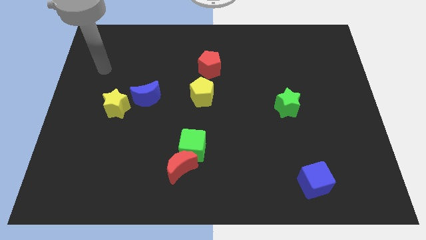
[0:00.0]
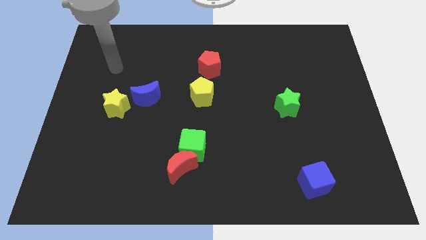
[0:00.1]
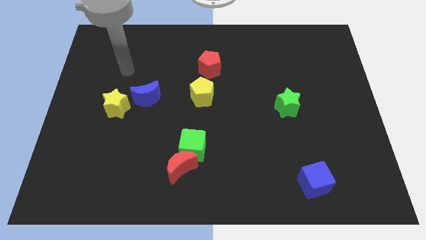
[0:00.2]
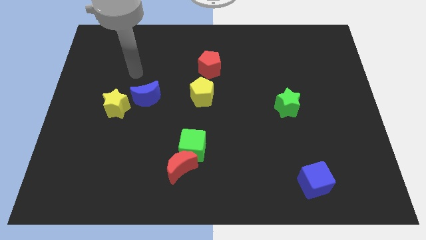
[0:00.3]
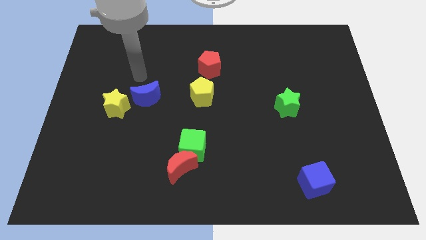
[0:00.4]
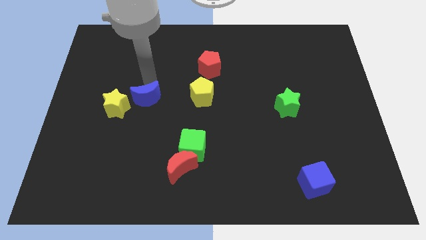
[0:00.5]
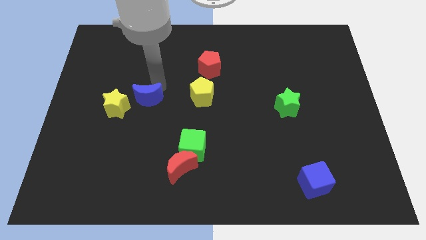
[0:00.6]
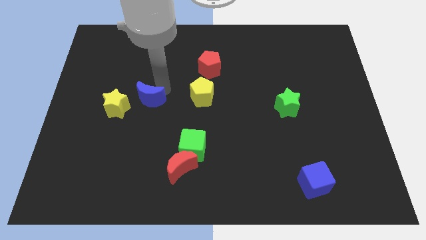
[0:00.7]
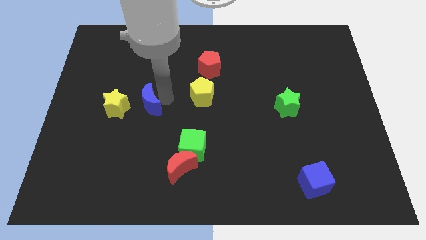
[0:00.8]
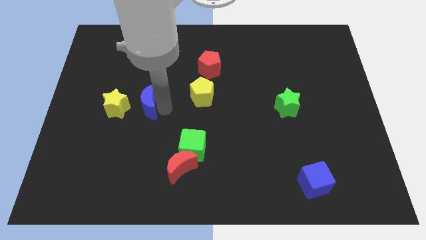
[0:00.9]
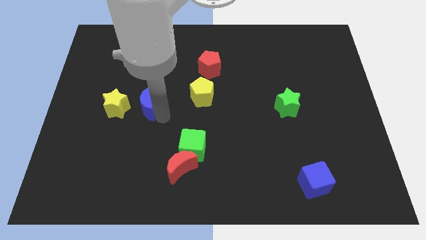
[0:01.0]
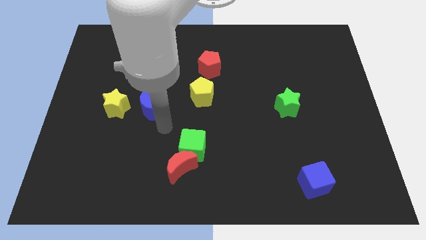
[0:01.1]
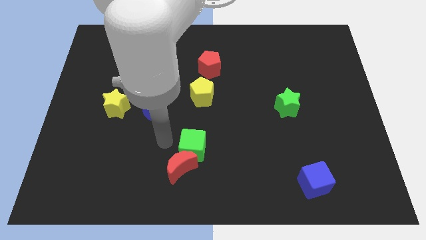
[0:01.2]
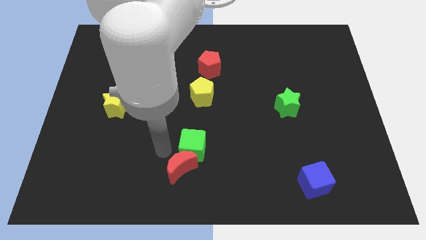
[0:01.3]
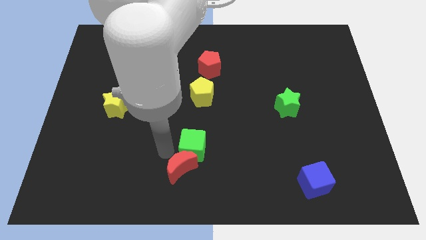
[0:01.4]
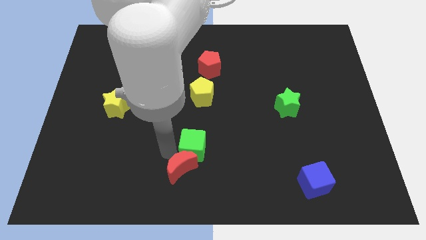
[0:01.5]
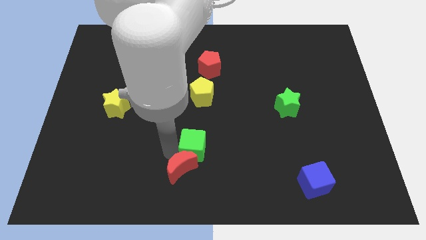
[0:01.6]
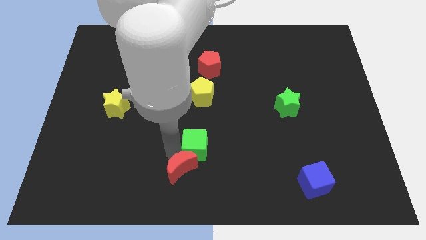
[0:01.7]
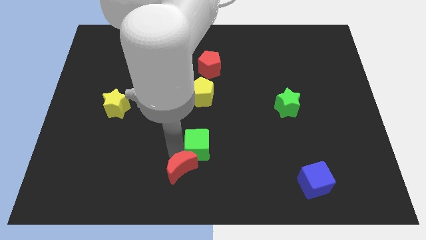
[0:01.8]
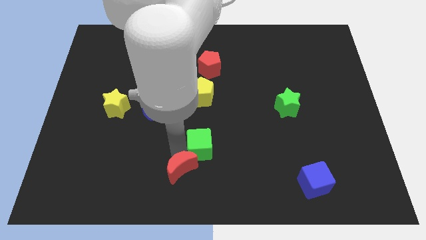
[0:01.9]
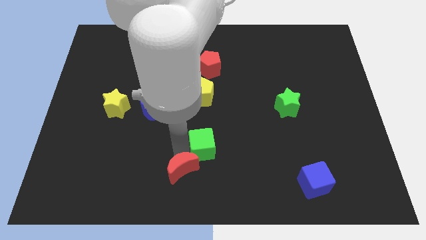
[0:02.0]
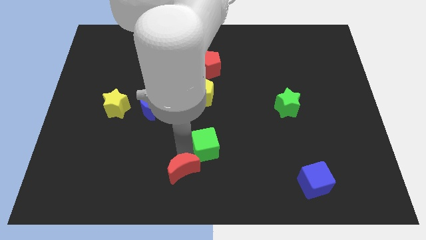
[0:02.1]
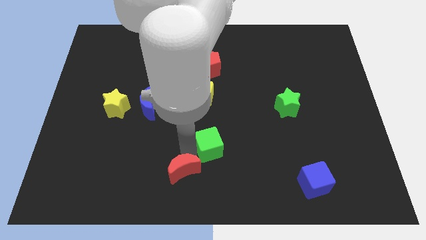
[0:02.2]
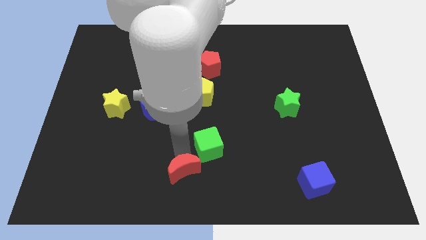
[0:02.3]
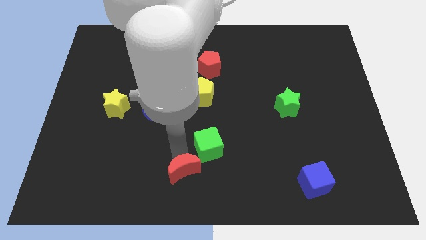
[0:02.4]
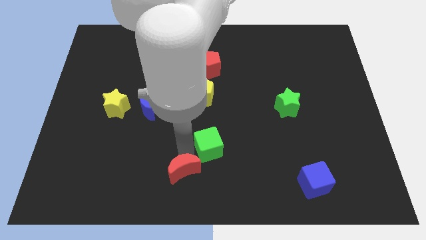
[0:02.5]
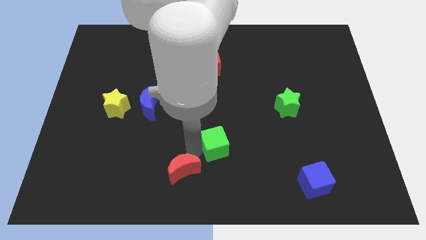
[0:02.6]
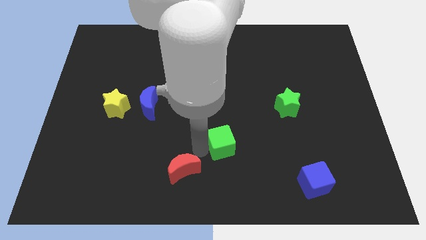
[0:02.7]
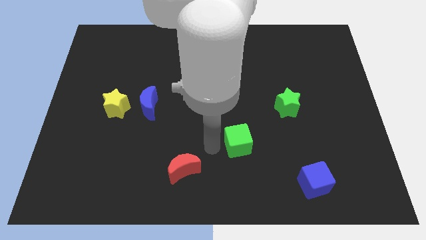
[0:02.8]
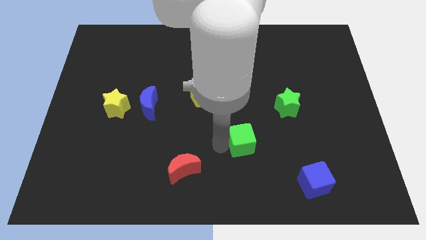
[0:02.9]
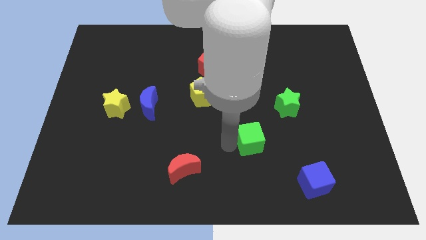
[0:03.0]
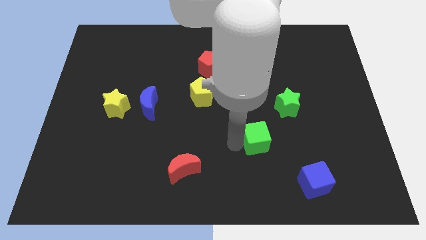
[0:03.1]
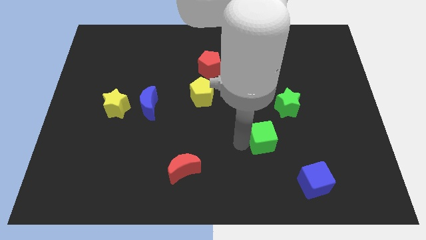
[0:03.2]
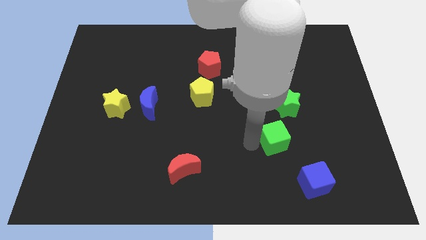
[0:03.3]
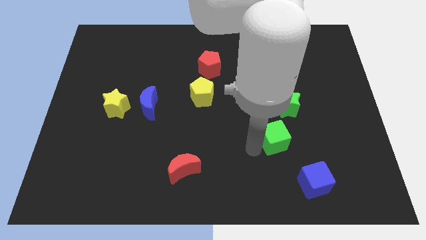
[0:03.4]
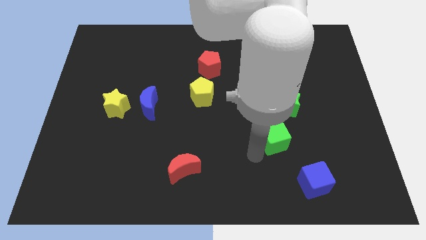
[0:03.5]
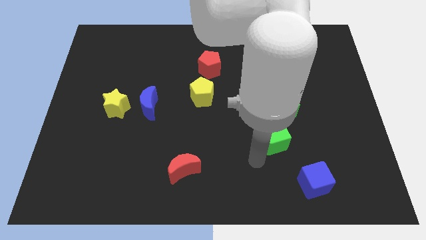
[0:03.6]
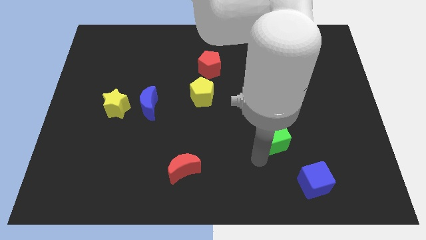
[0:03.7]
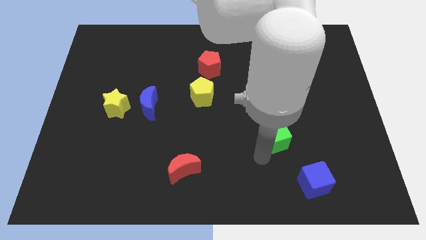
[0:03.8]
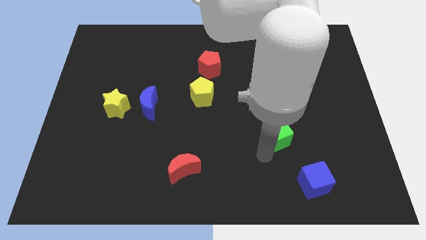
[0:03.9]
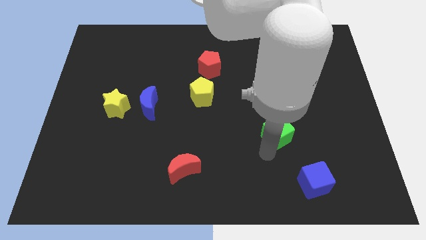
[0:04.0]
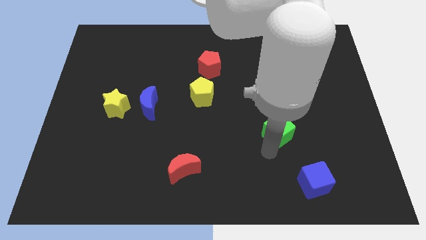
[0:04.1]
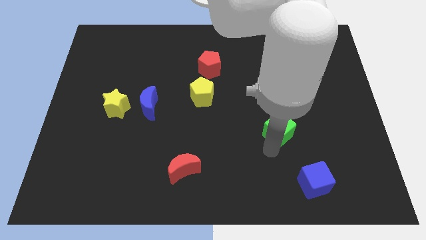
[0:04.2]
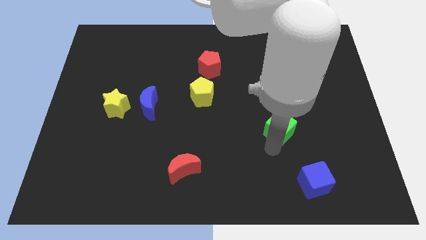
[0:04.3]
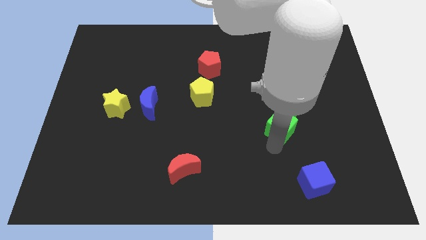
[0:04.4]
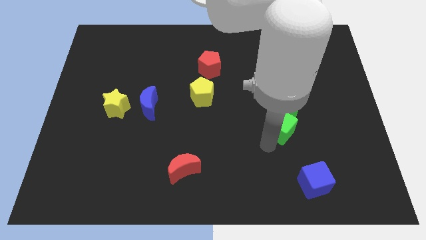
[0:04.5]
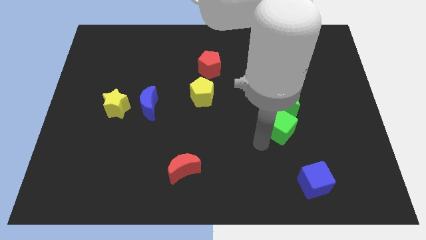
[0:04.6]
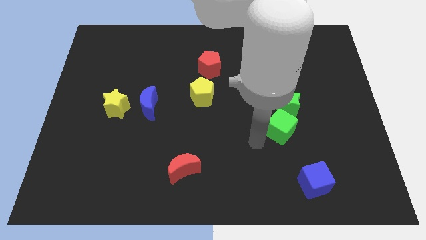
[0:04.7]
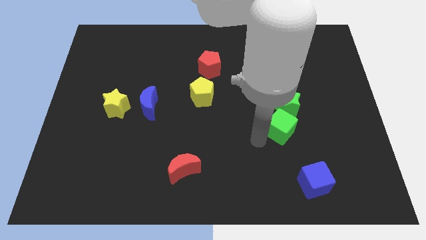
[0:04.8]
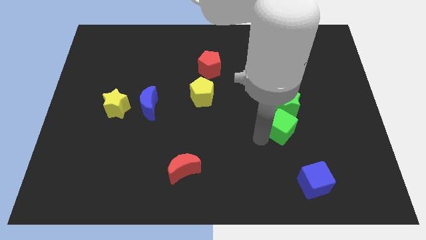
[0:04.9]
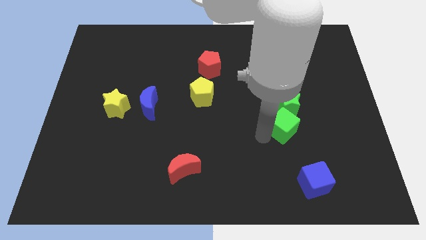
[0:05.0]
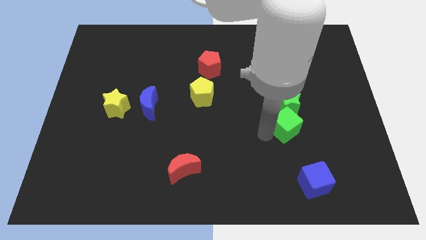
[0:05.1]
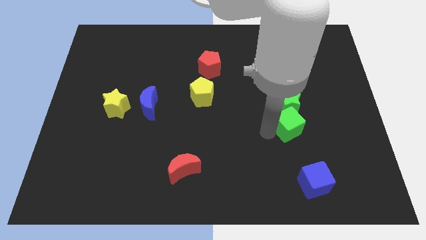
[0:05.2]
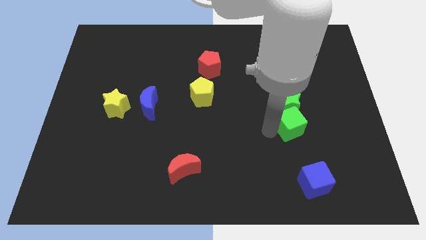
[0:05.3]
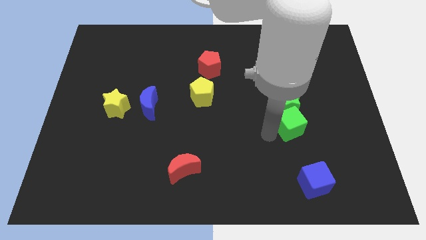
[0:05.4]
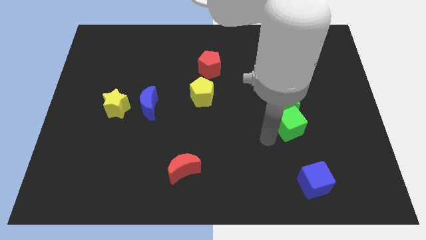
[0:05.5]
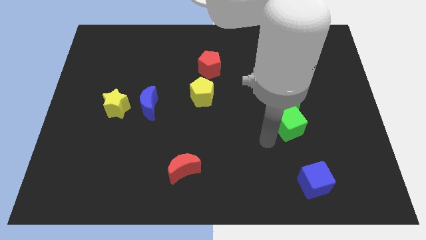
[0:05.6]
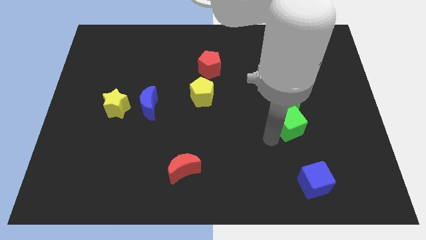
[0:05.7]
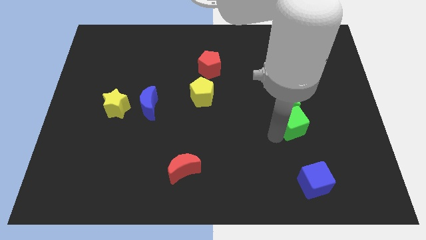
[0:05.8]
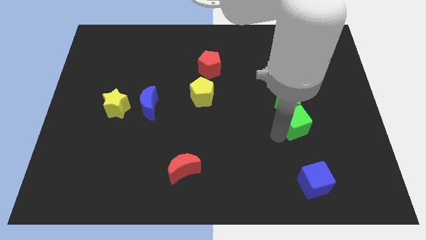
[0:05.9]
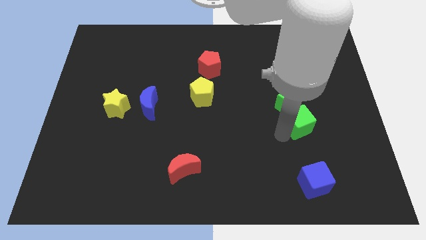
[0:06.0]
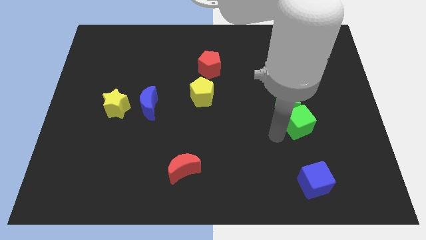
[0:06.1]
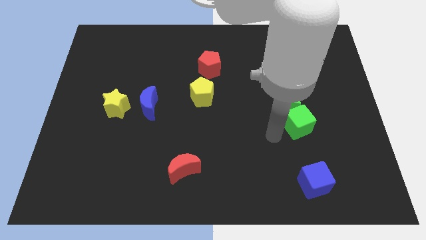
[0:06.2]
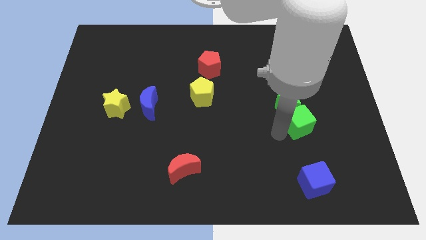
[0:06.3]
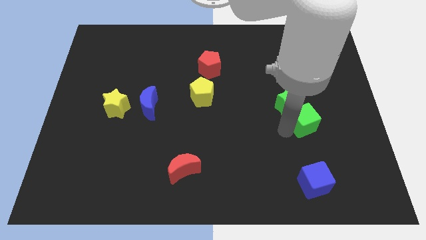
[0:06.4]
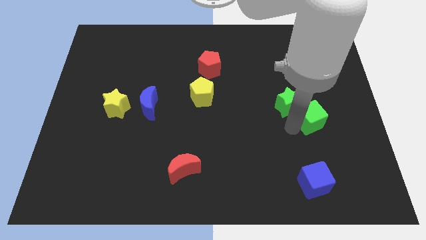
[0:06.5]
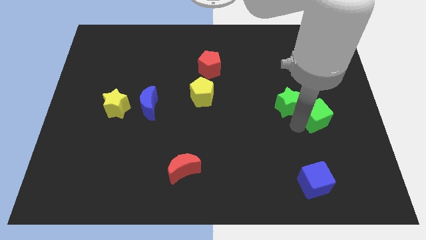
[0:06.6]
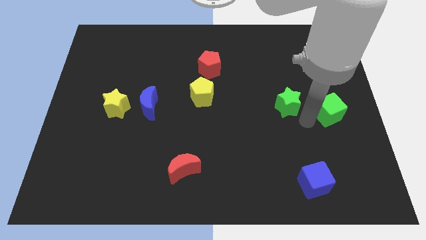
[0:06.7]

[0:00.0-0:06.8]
slide the green cube to the right side of the board
